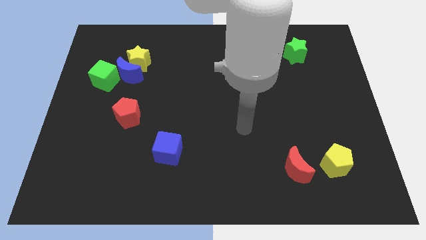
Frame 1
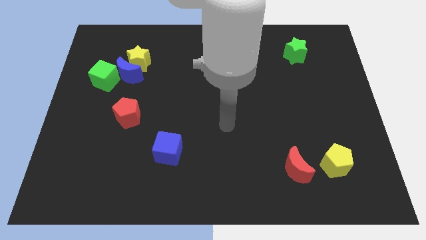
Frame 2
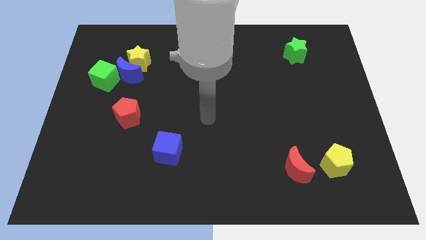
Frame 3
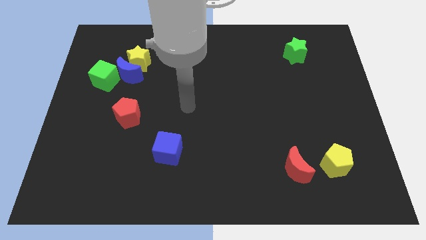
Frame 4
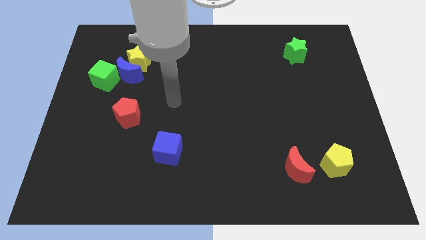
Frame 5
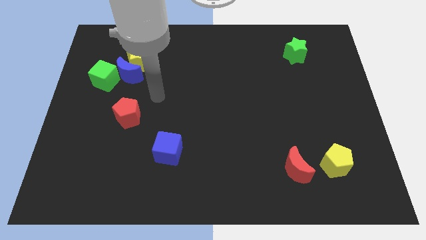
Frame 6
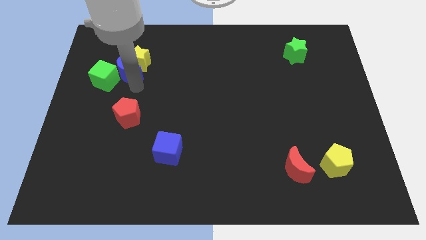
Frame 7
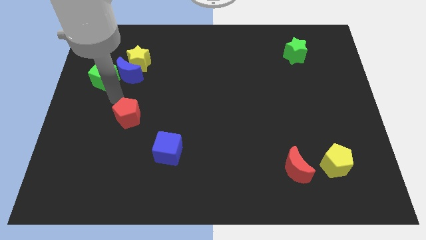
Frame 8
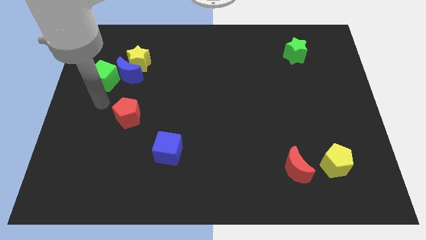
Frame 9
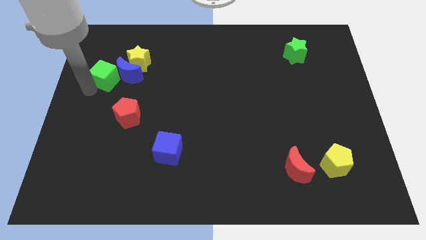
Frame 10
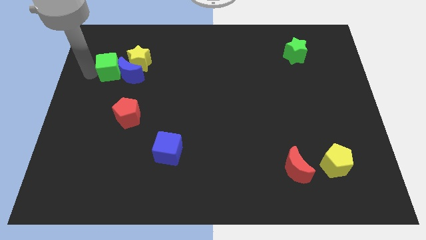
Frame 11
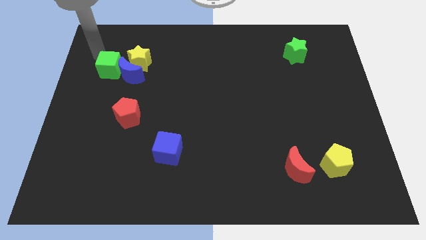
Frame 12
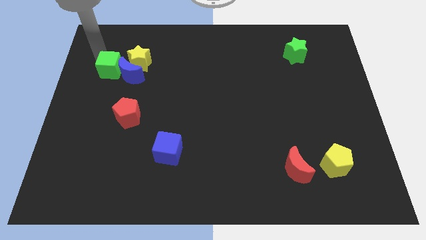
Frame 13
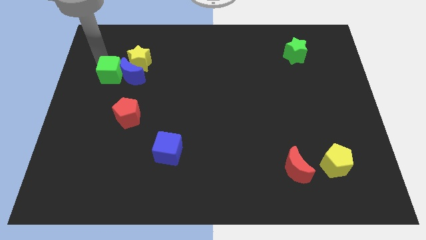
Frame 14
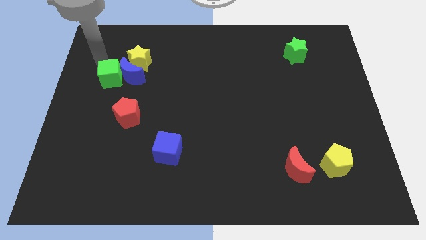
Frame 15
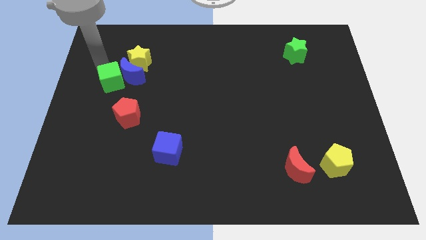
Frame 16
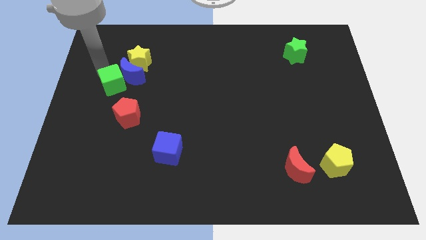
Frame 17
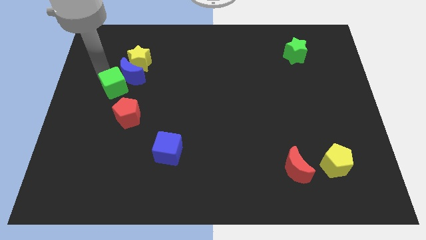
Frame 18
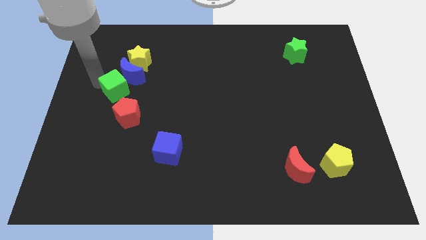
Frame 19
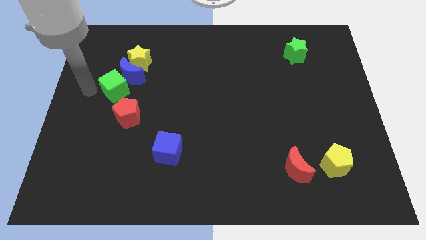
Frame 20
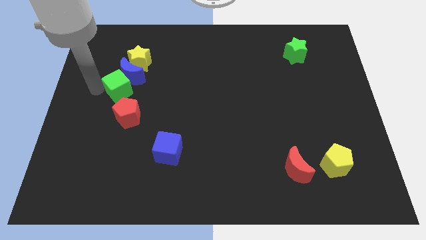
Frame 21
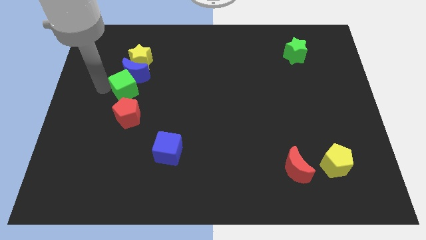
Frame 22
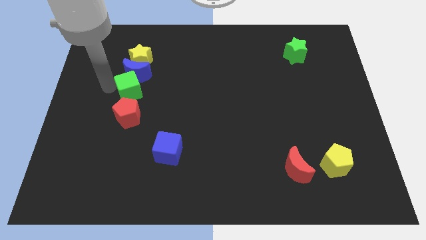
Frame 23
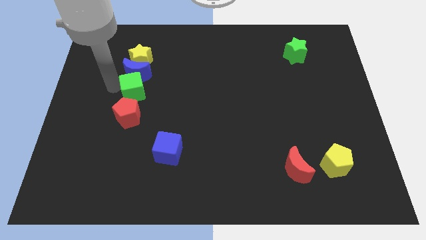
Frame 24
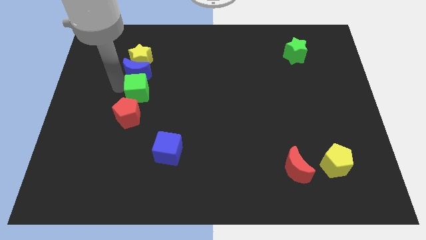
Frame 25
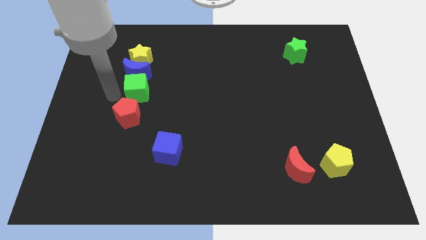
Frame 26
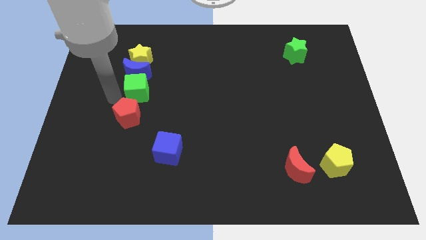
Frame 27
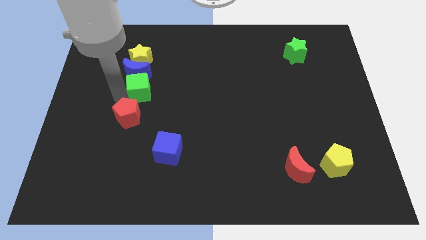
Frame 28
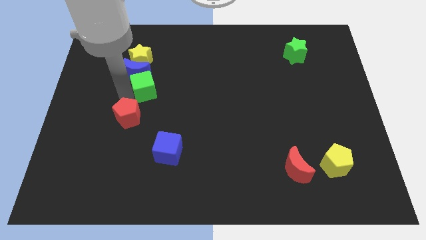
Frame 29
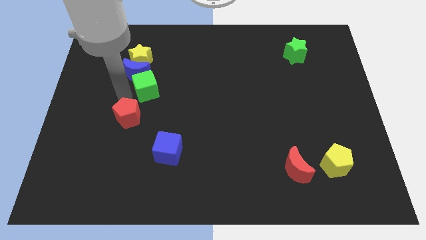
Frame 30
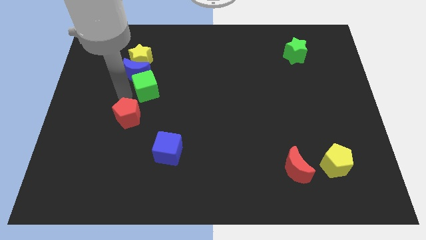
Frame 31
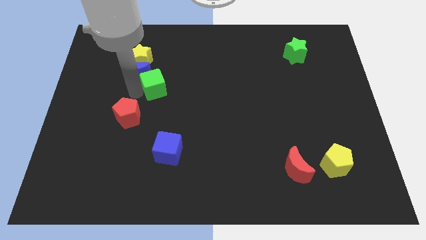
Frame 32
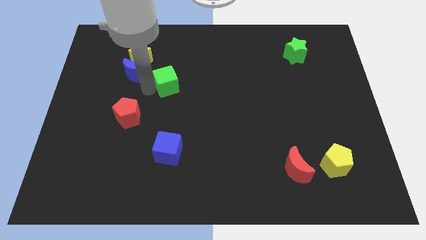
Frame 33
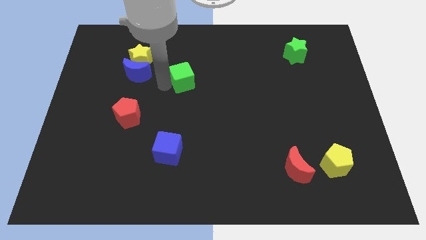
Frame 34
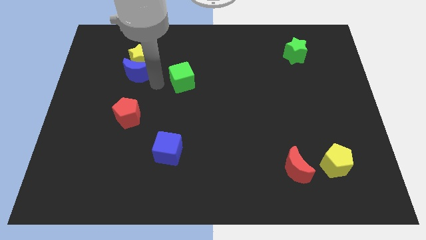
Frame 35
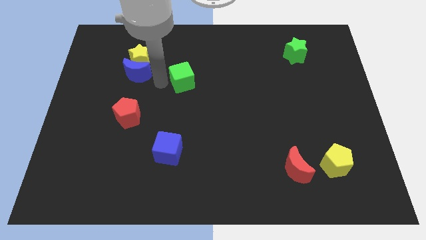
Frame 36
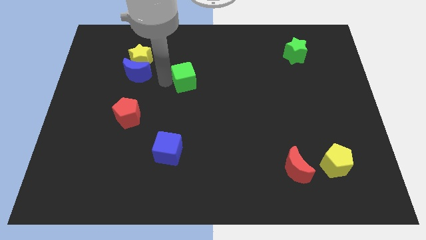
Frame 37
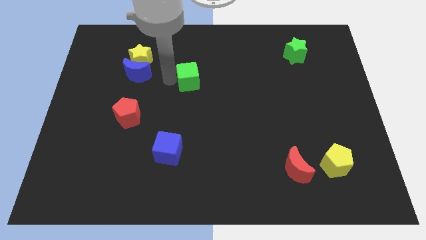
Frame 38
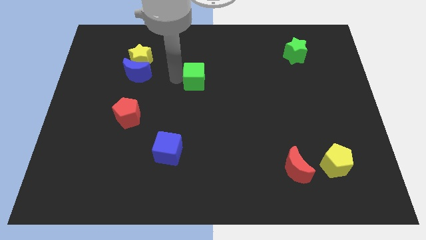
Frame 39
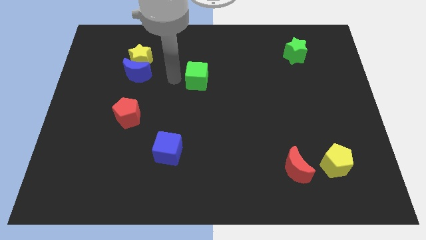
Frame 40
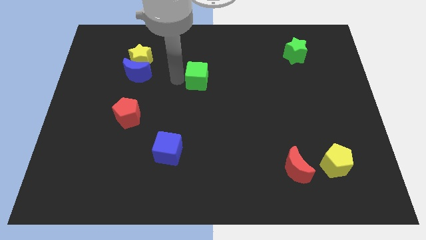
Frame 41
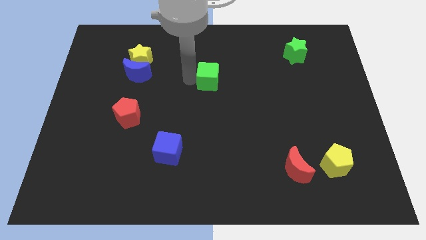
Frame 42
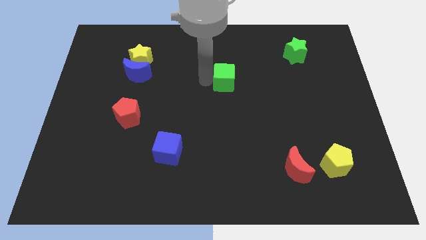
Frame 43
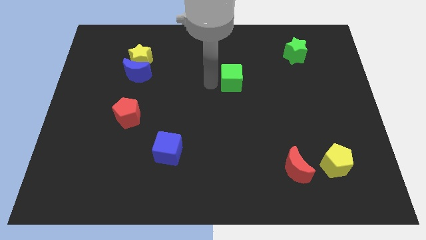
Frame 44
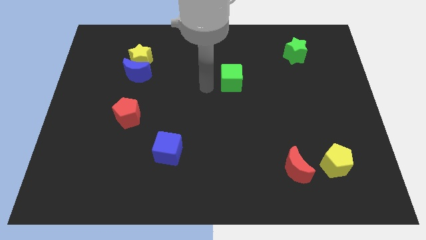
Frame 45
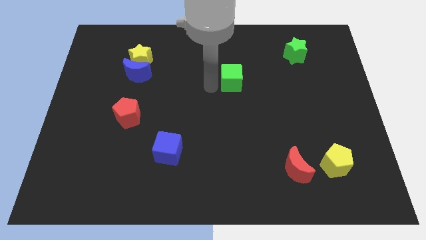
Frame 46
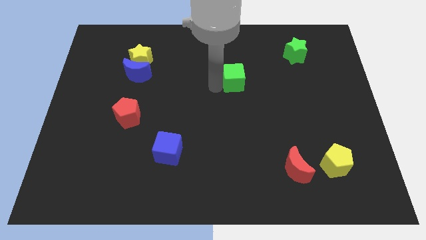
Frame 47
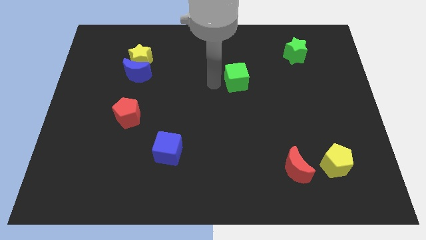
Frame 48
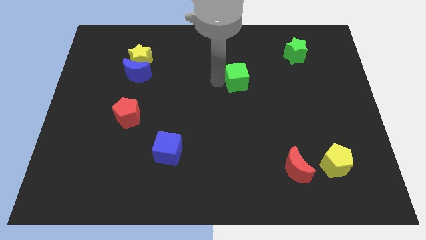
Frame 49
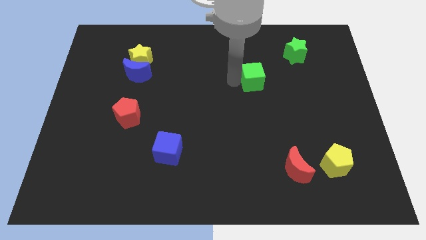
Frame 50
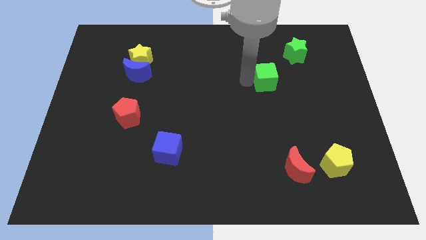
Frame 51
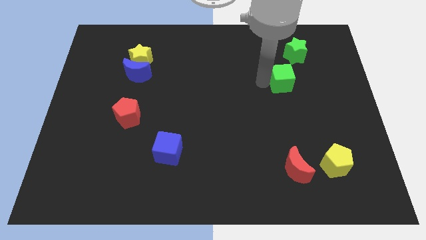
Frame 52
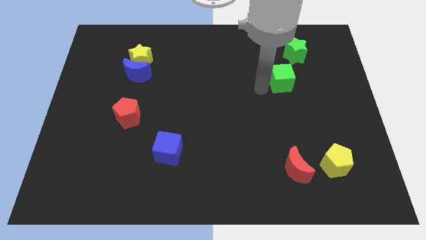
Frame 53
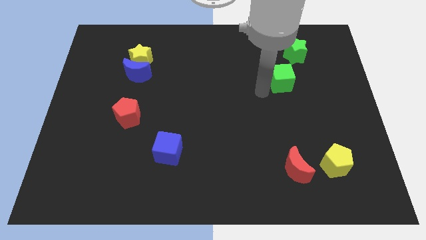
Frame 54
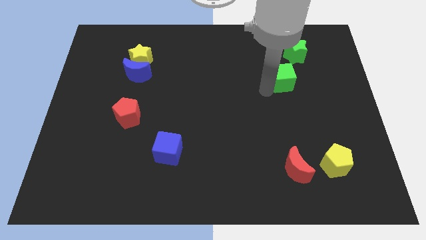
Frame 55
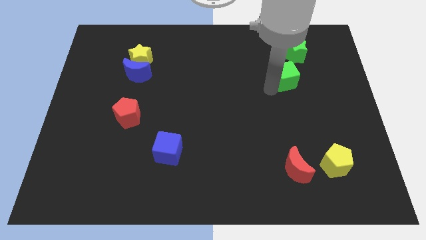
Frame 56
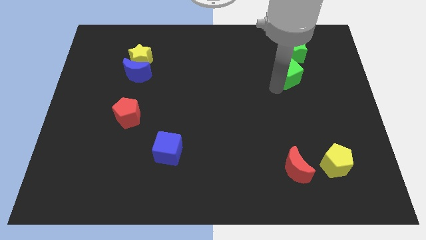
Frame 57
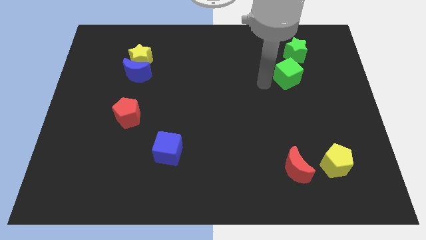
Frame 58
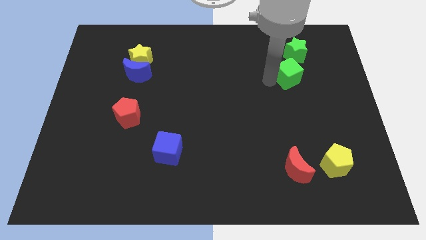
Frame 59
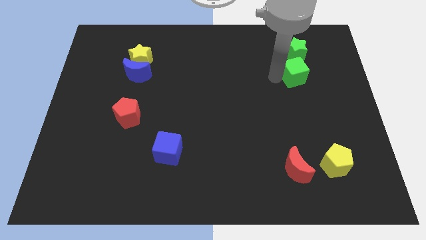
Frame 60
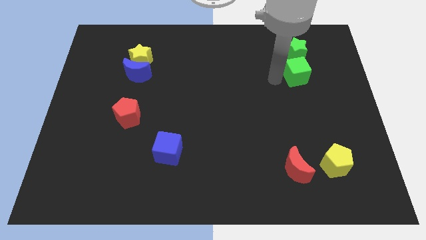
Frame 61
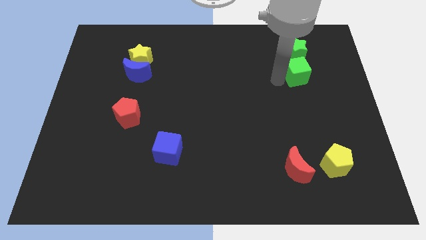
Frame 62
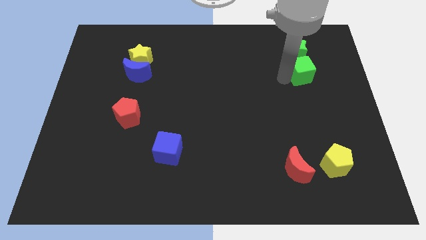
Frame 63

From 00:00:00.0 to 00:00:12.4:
put the green cube diagonally down and to the right of the green star
